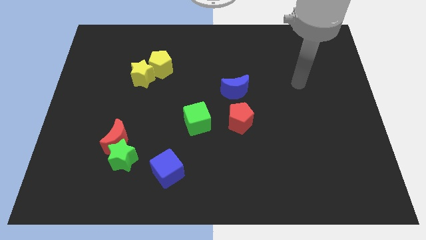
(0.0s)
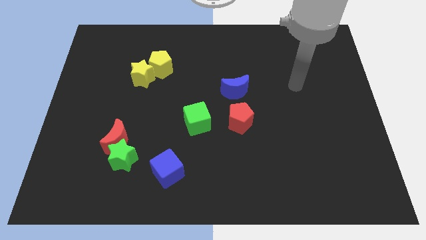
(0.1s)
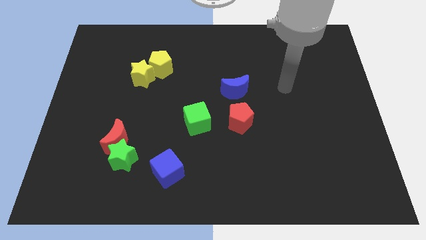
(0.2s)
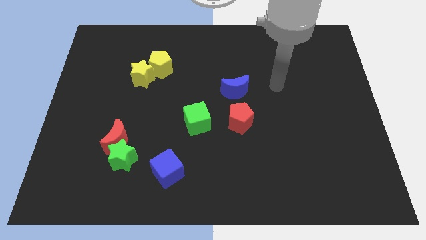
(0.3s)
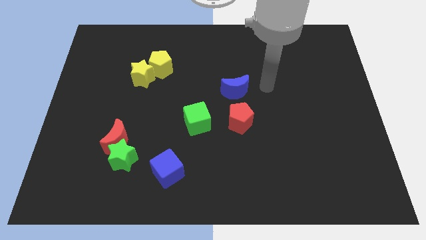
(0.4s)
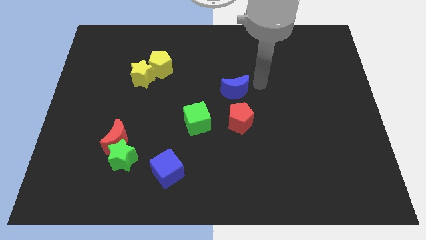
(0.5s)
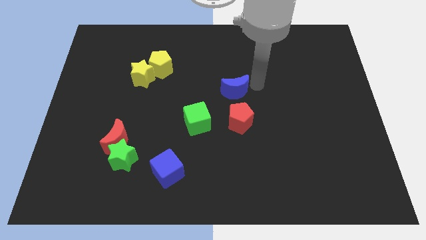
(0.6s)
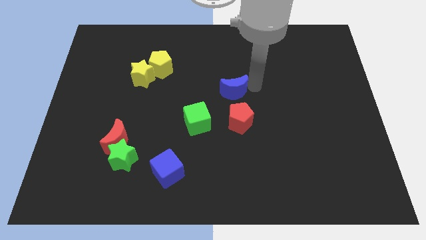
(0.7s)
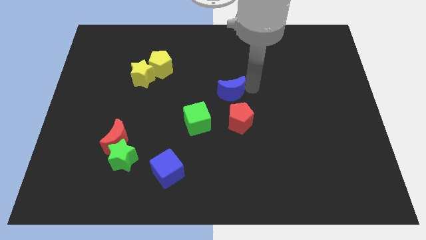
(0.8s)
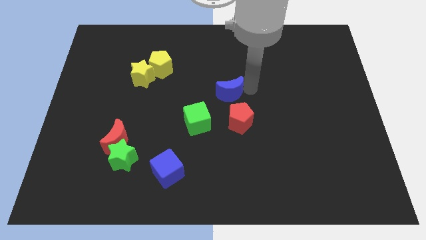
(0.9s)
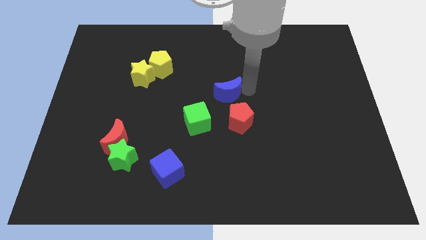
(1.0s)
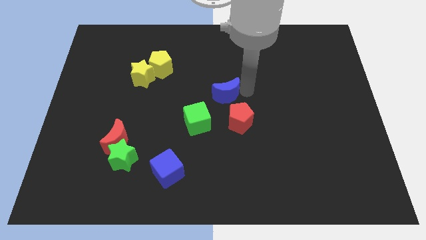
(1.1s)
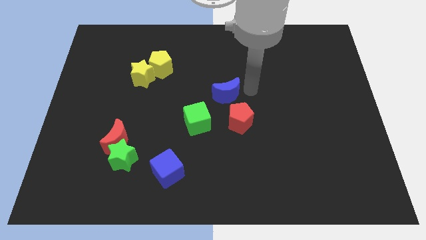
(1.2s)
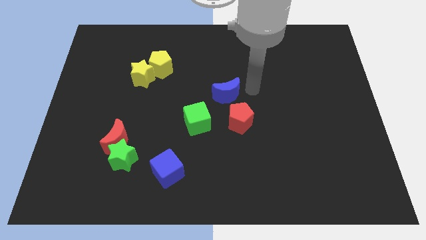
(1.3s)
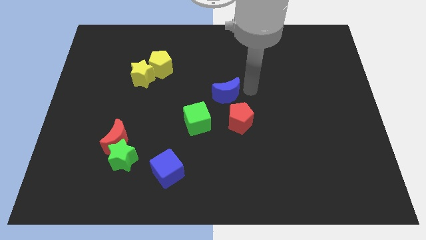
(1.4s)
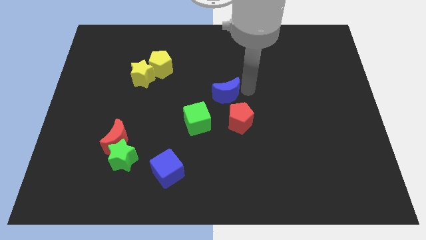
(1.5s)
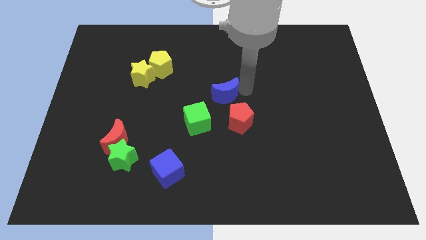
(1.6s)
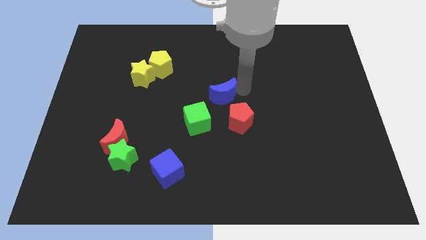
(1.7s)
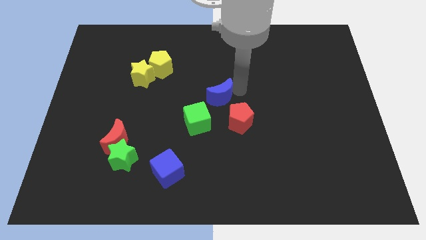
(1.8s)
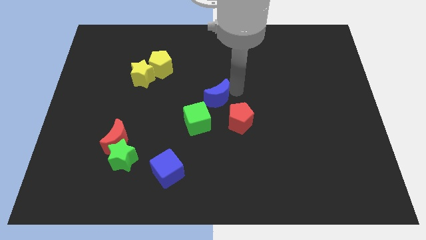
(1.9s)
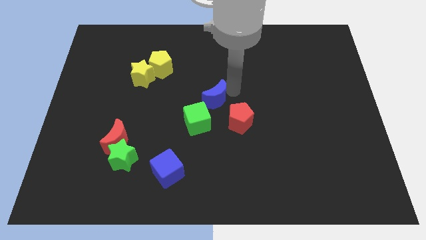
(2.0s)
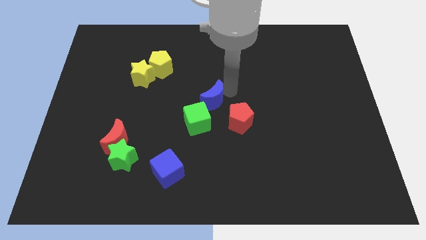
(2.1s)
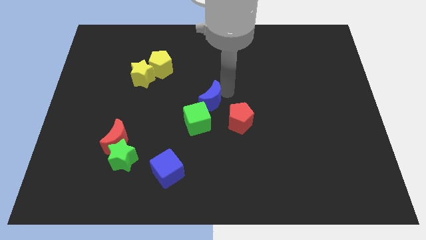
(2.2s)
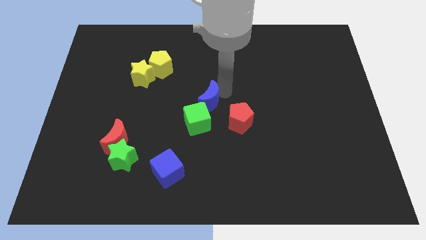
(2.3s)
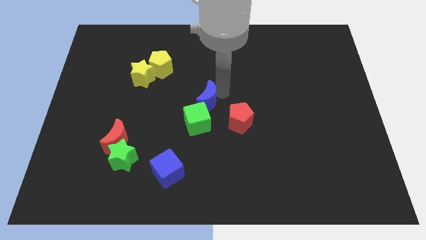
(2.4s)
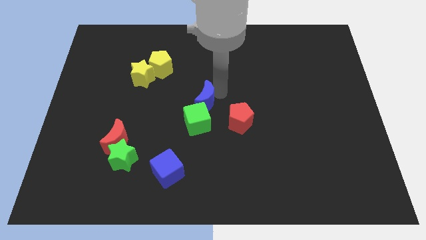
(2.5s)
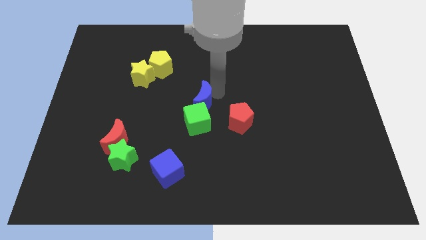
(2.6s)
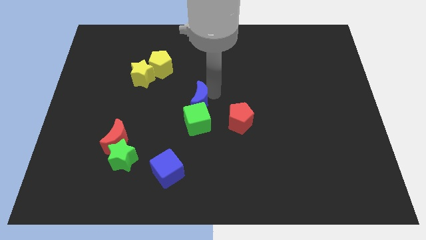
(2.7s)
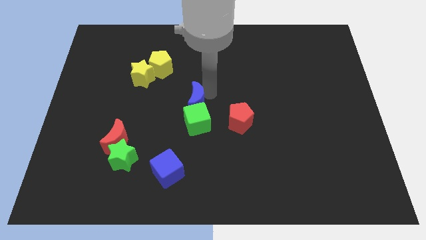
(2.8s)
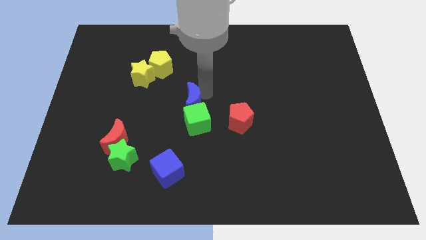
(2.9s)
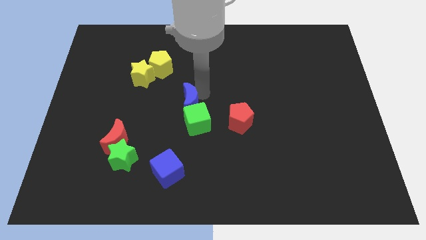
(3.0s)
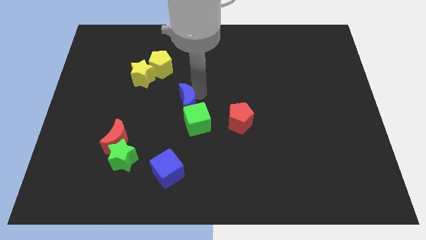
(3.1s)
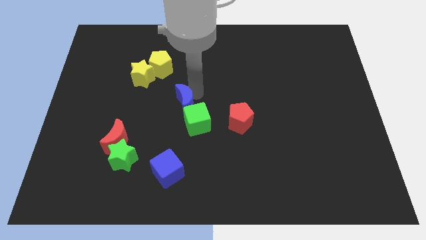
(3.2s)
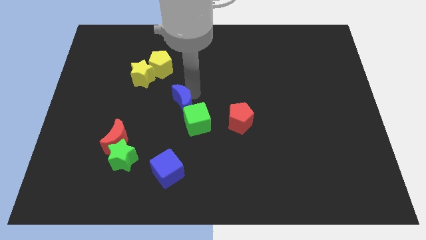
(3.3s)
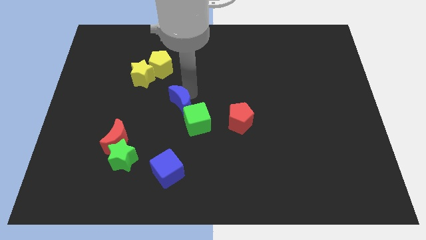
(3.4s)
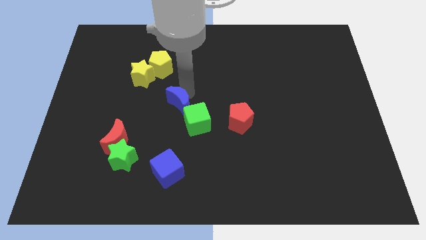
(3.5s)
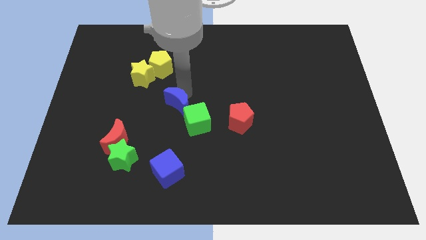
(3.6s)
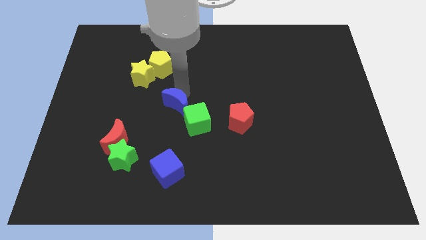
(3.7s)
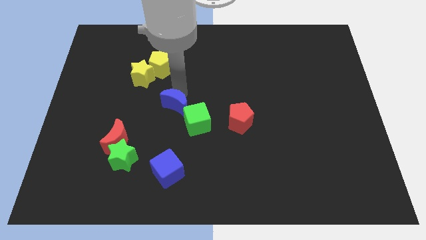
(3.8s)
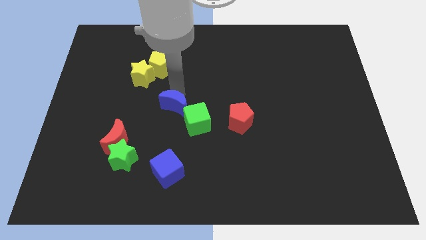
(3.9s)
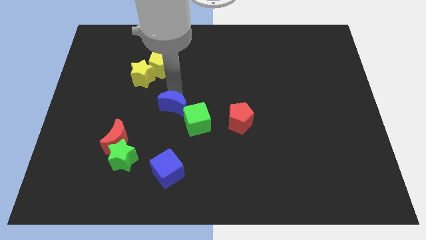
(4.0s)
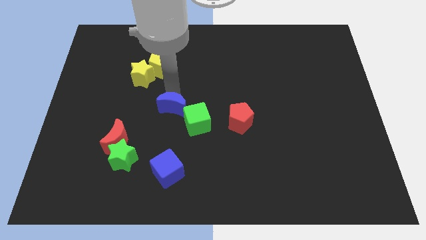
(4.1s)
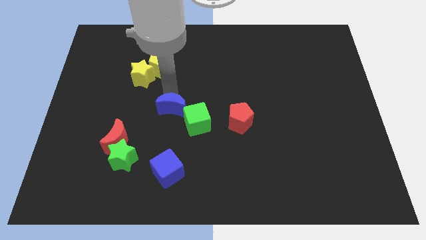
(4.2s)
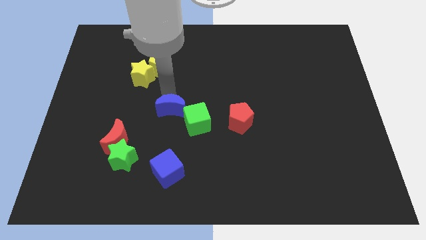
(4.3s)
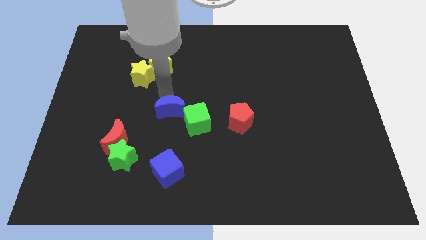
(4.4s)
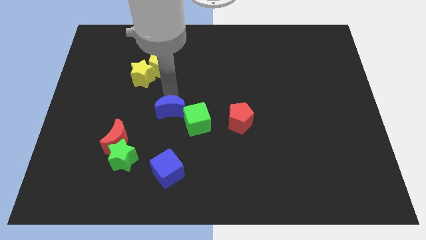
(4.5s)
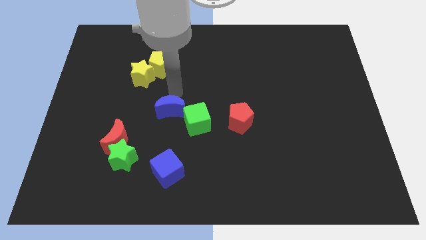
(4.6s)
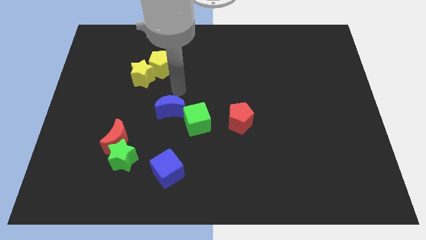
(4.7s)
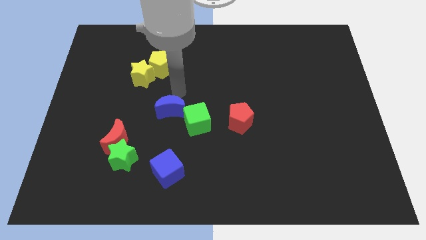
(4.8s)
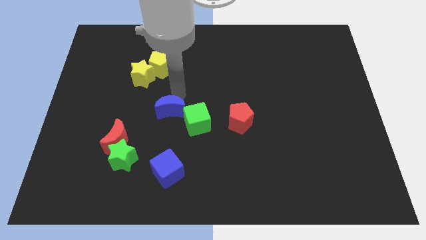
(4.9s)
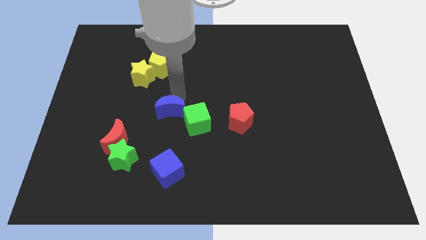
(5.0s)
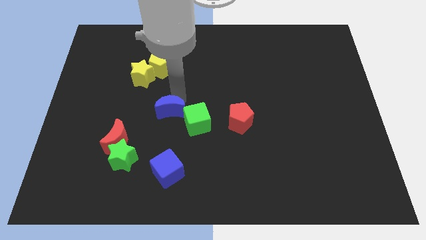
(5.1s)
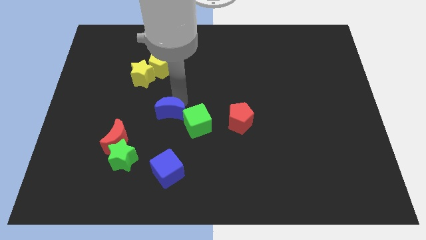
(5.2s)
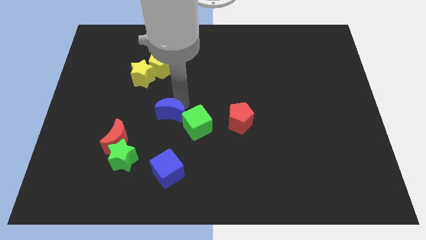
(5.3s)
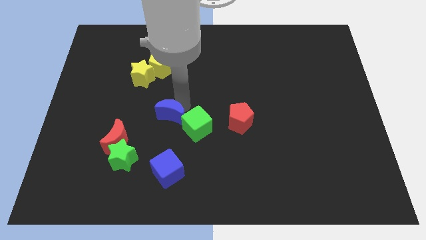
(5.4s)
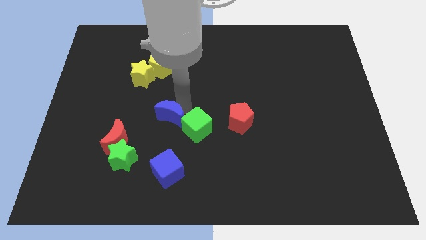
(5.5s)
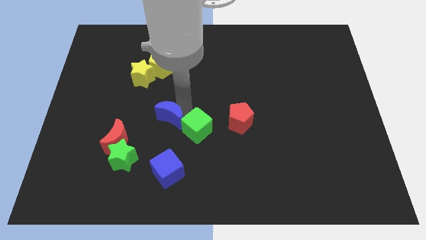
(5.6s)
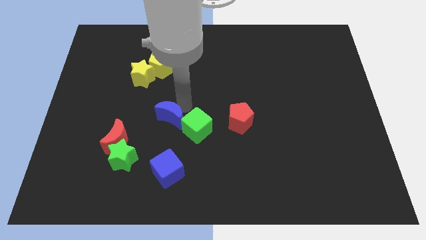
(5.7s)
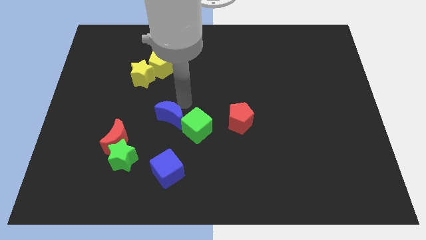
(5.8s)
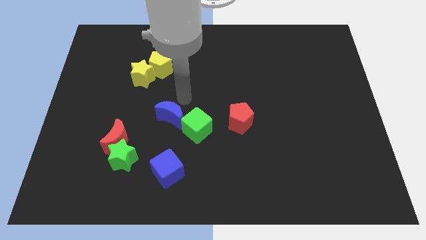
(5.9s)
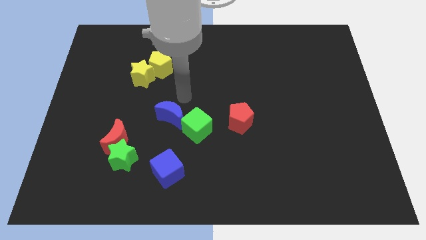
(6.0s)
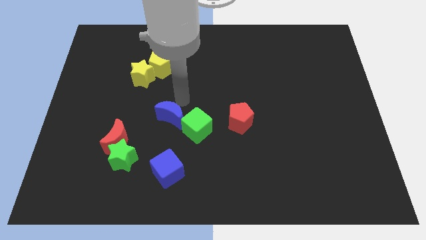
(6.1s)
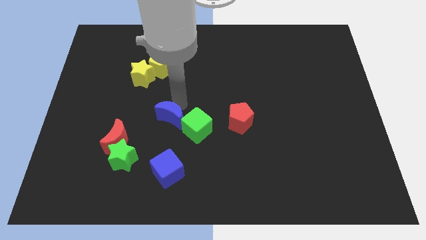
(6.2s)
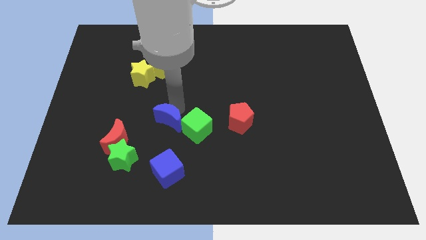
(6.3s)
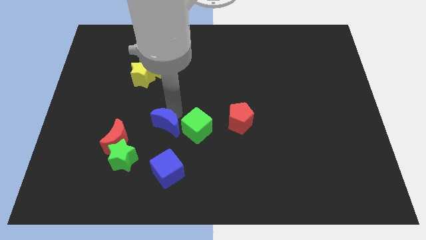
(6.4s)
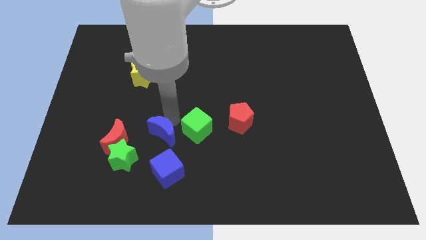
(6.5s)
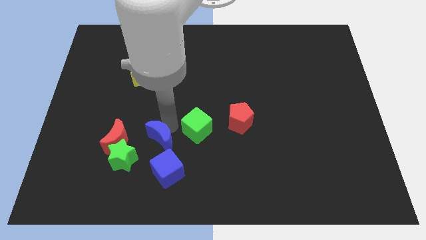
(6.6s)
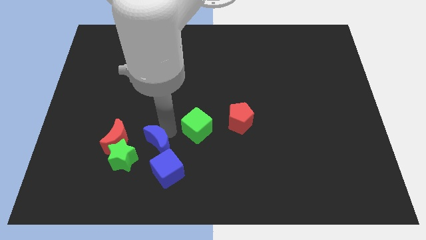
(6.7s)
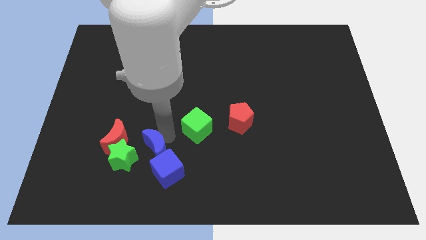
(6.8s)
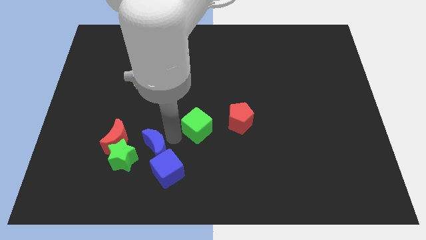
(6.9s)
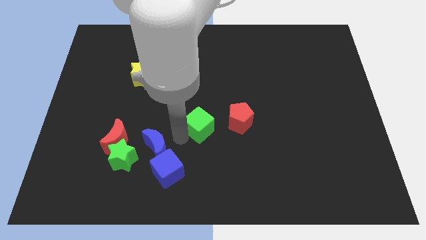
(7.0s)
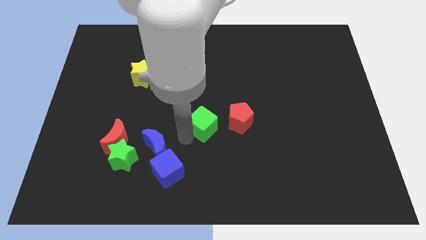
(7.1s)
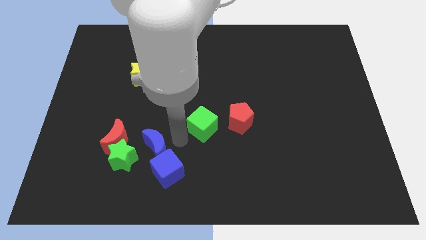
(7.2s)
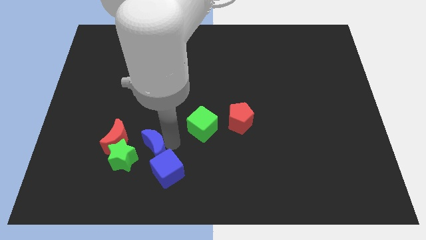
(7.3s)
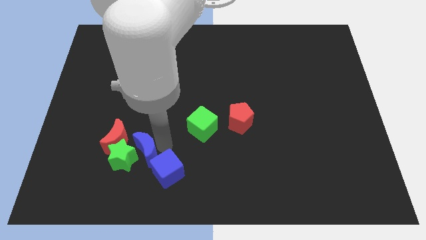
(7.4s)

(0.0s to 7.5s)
push the blue moon next to the green star
